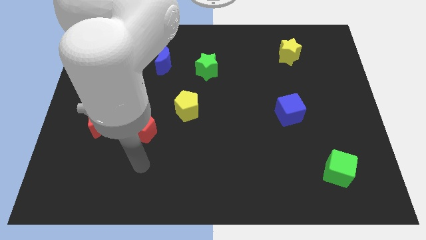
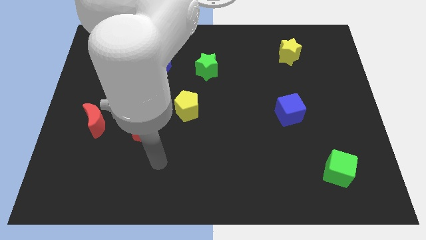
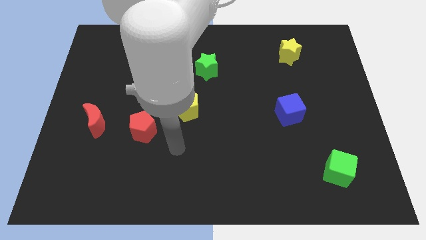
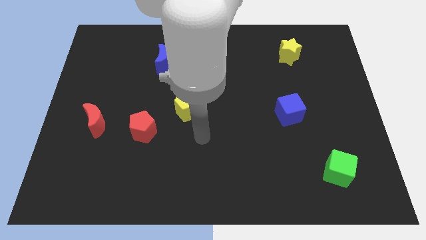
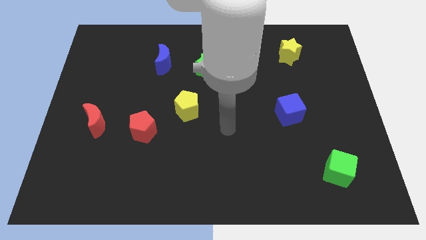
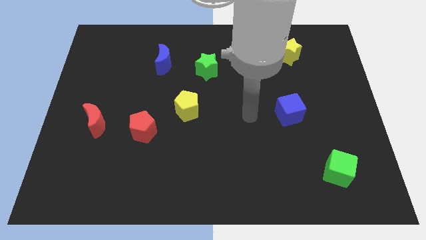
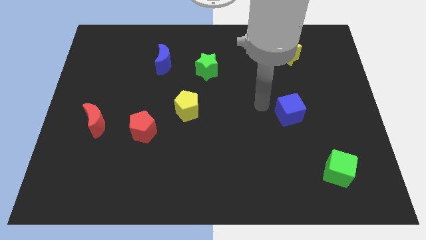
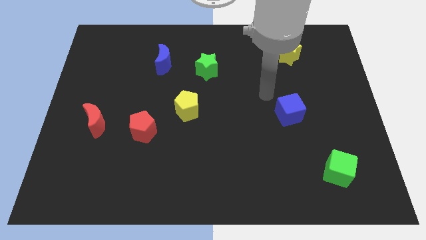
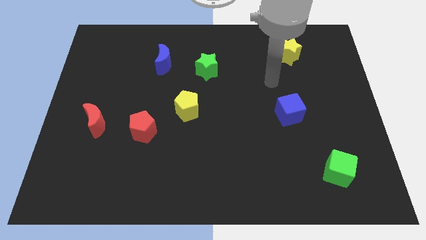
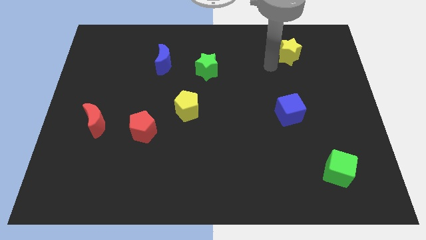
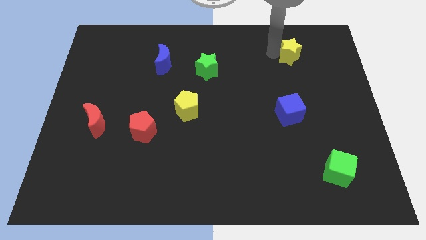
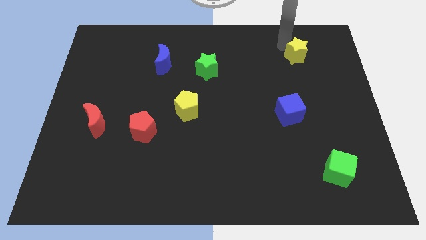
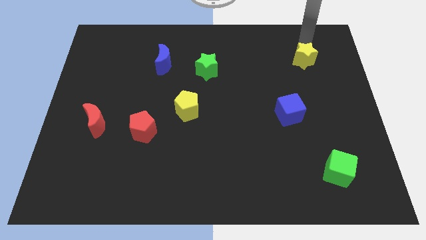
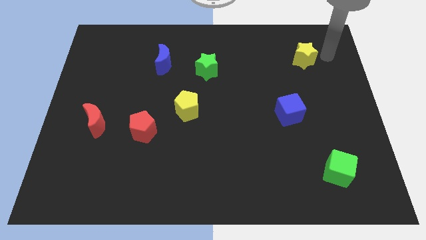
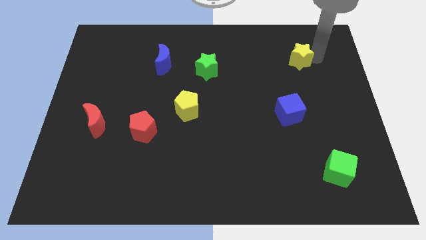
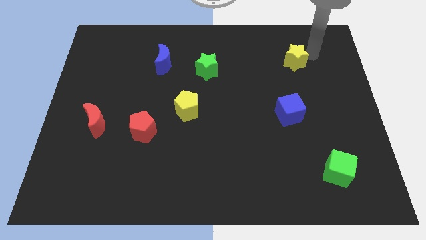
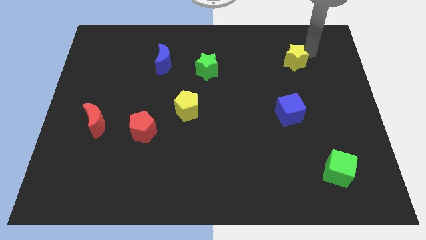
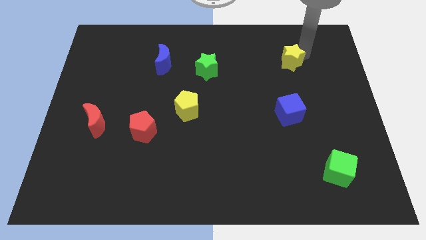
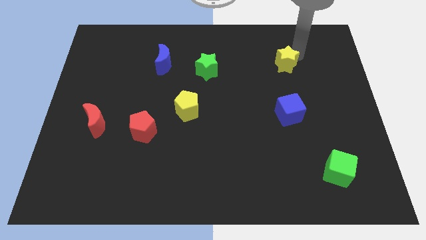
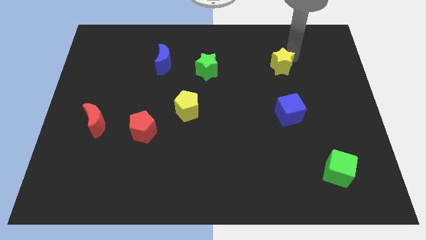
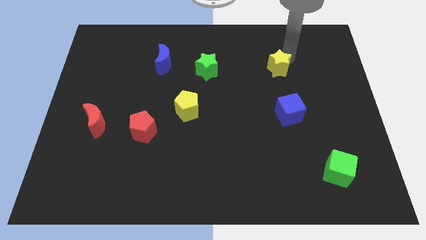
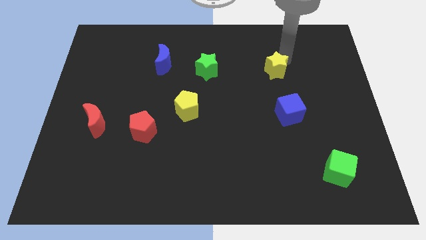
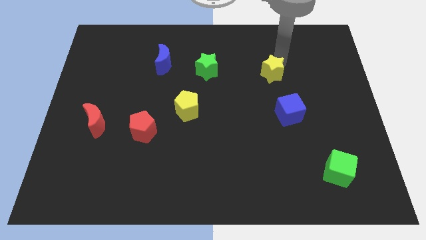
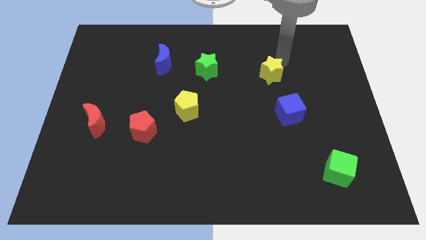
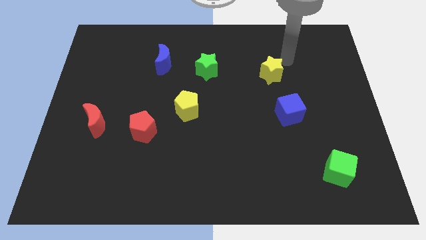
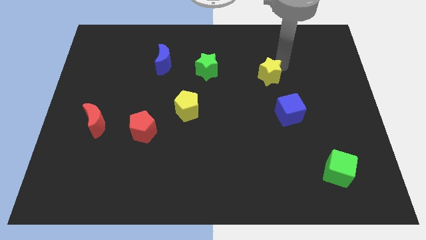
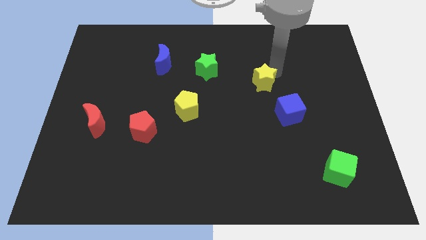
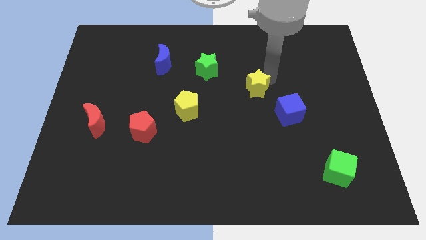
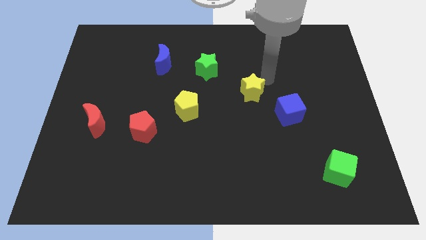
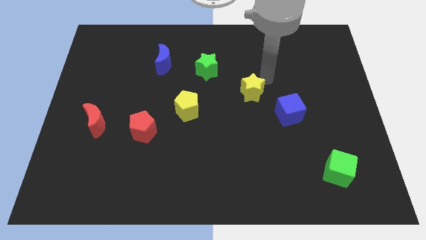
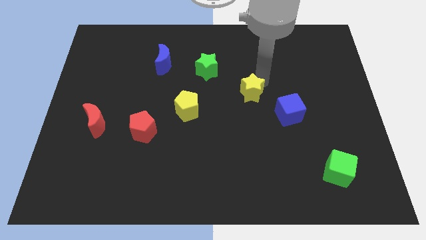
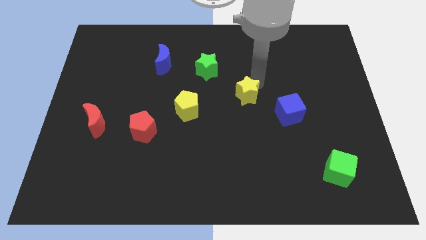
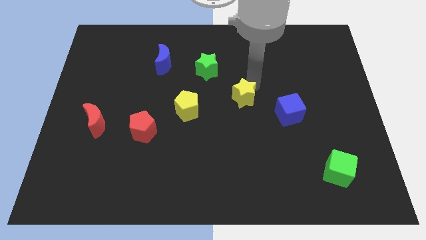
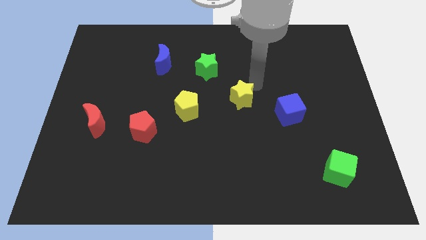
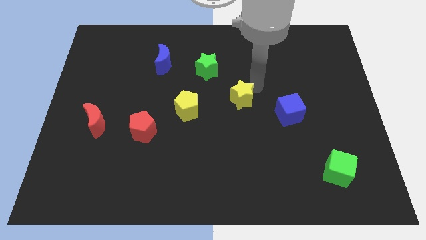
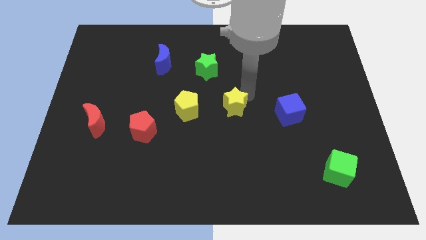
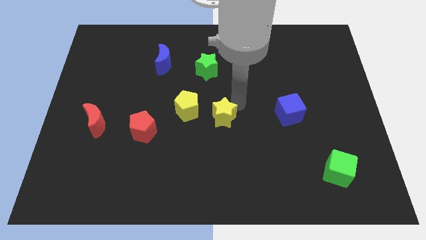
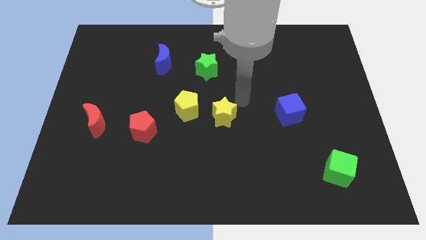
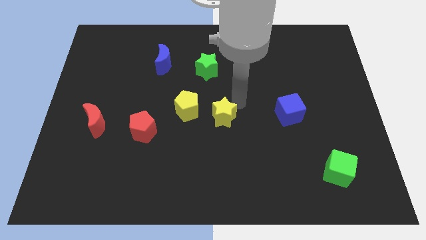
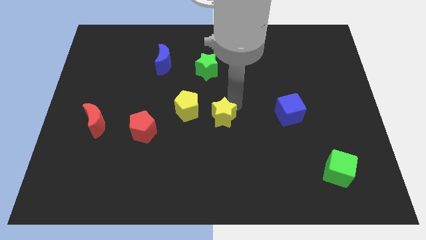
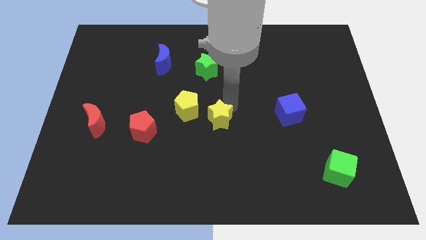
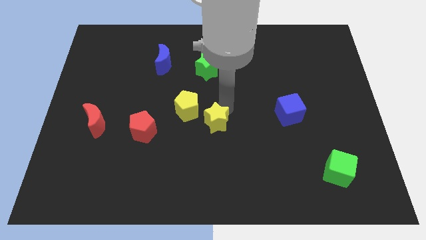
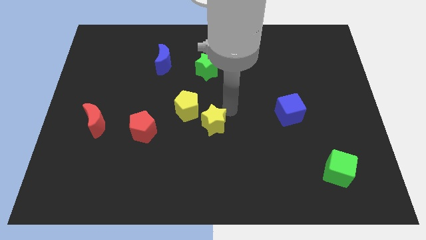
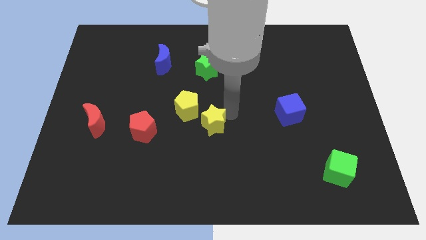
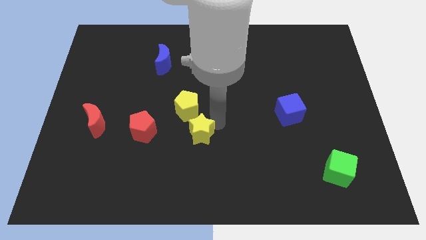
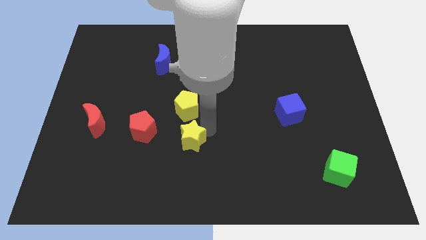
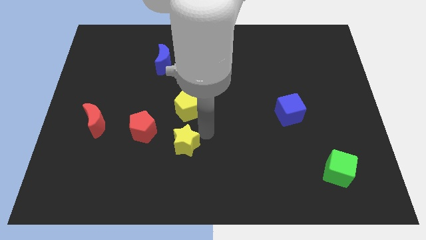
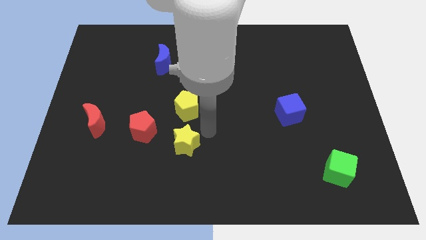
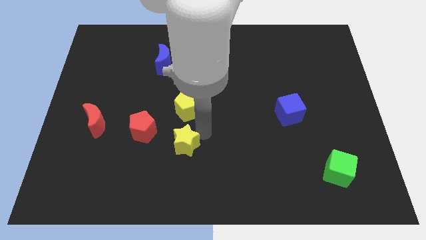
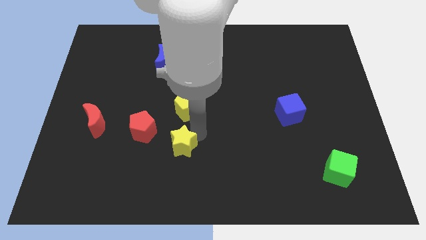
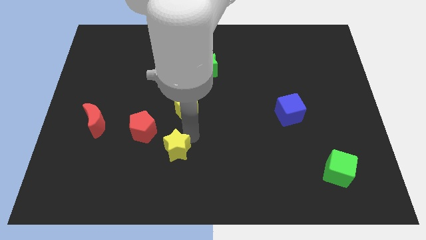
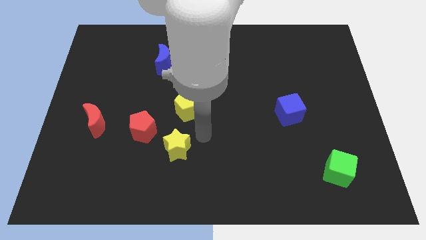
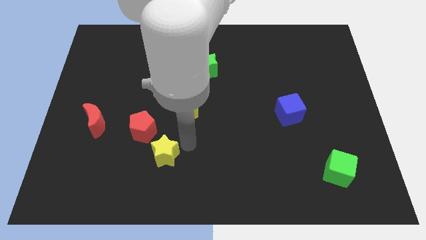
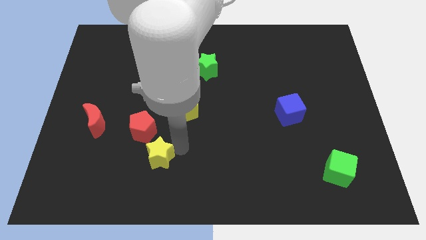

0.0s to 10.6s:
slide the yellow star below the red pentagon

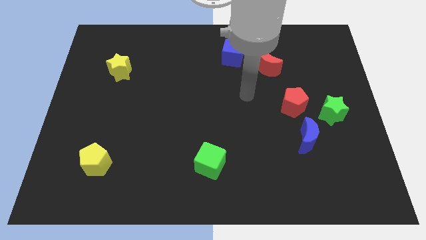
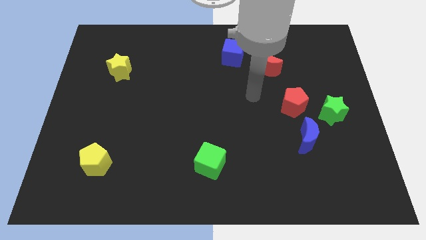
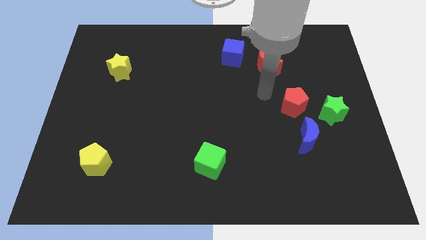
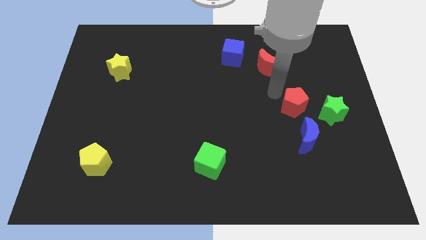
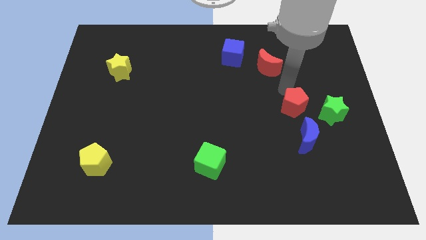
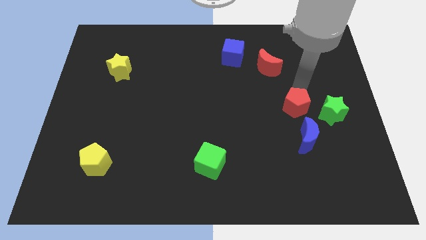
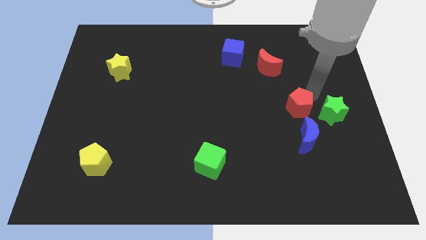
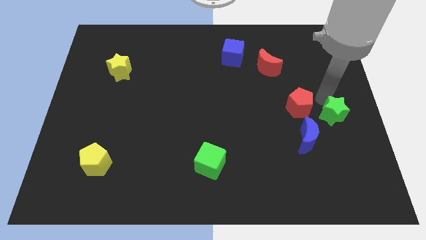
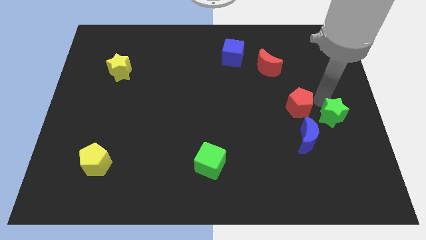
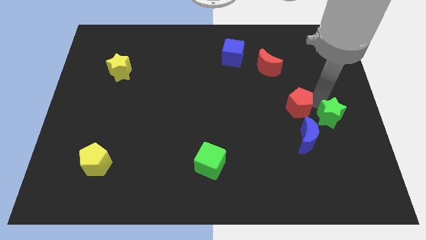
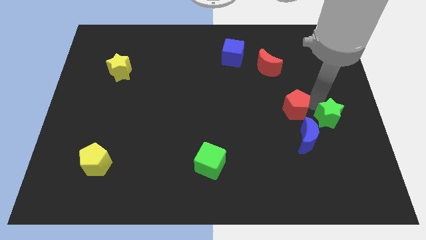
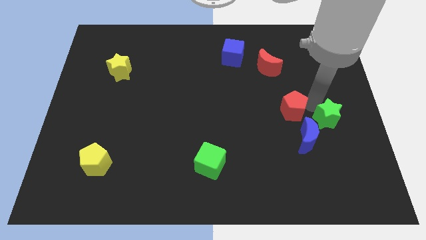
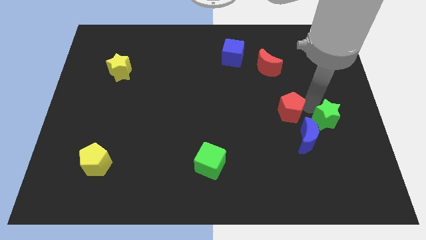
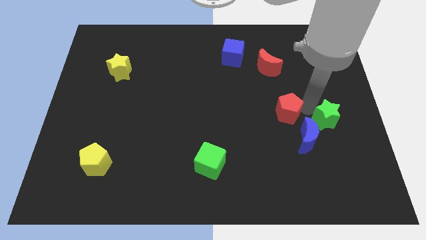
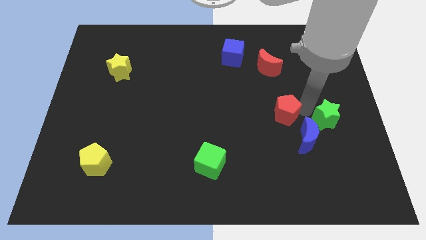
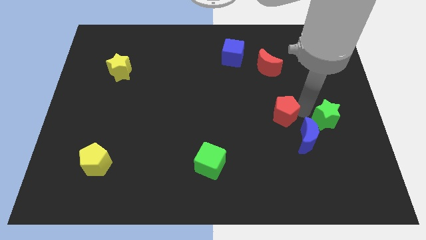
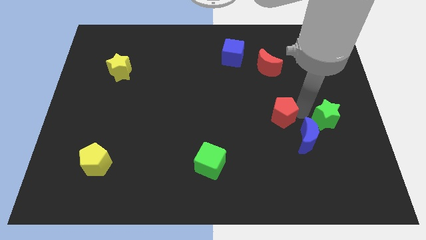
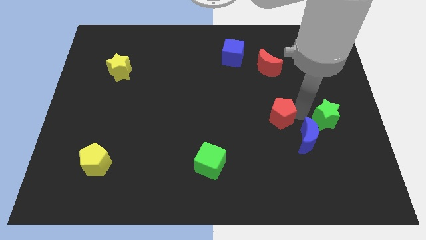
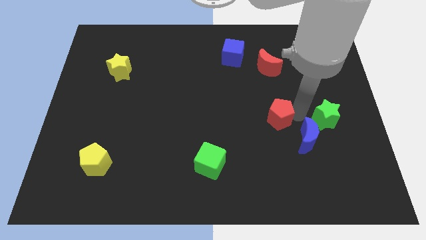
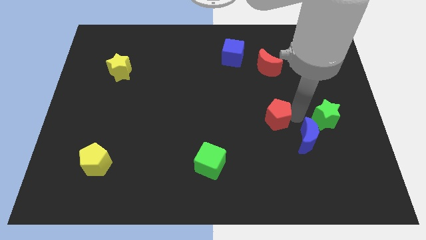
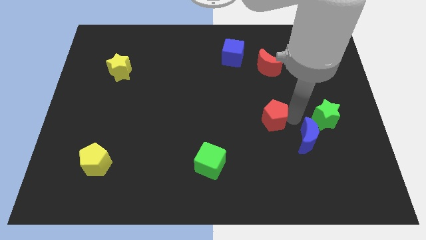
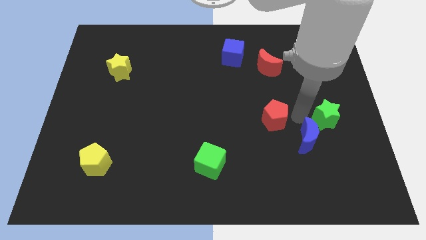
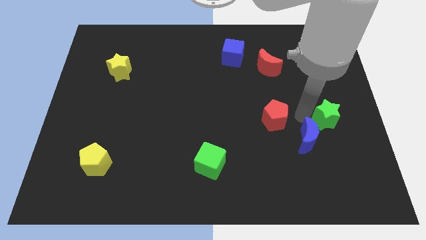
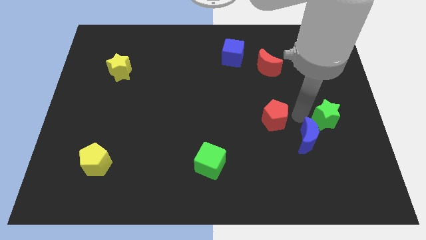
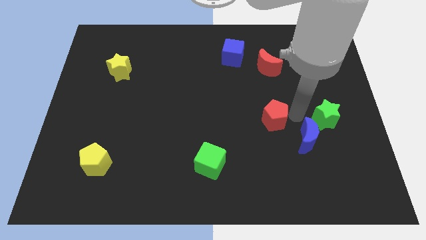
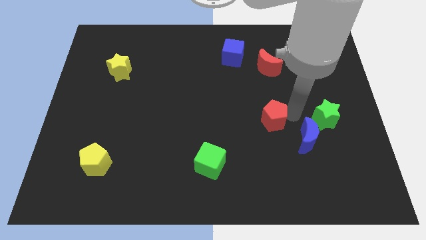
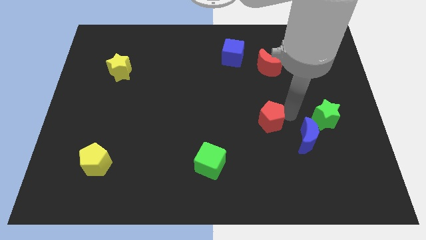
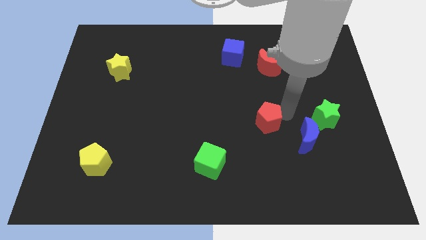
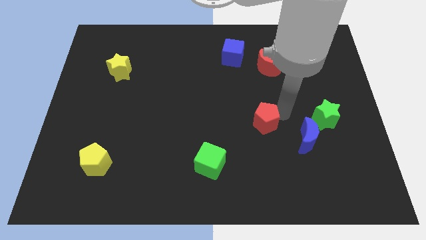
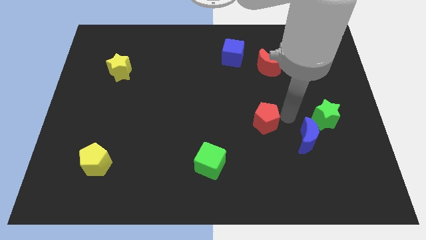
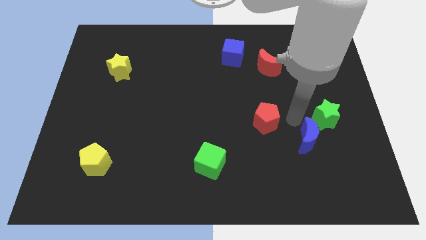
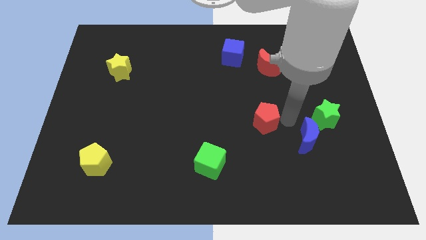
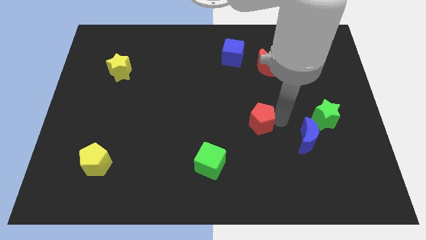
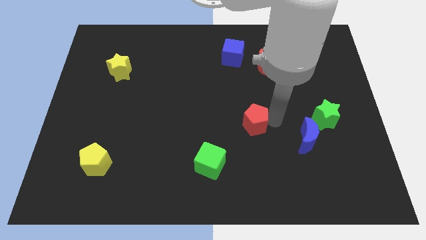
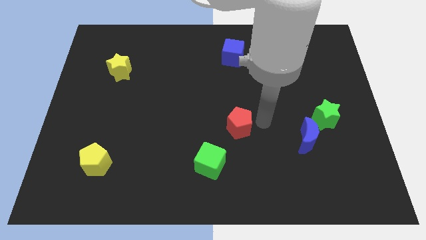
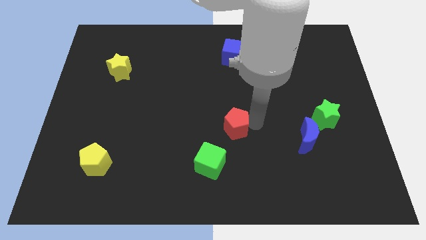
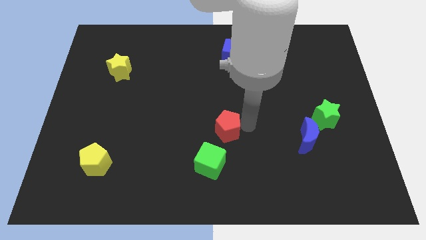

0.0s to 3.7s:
slide the red pentagon to the top side of the green cube
